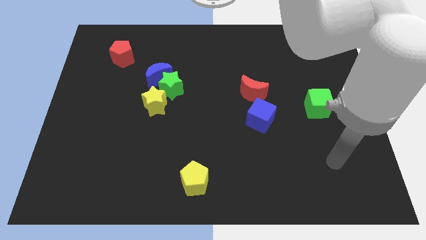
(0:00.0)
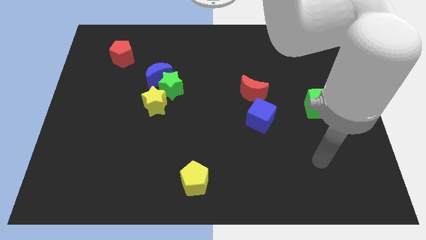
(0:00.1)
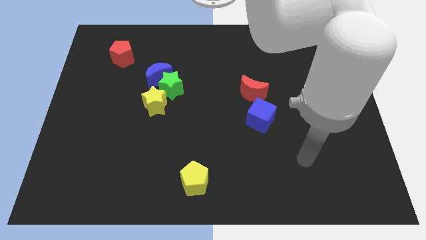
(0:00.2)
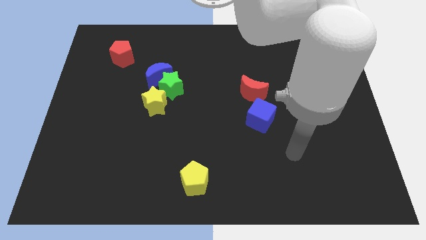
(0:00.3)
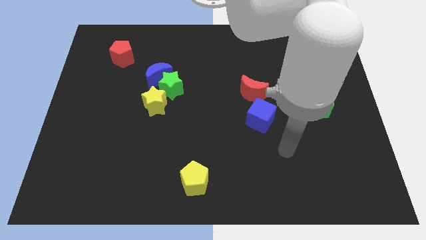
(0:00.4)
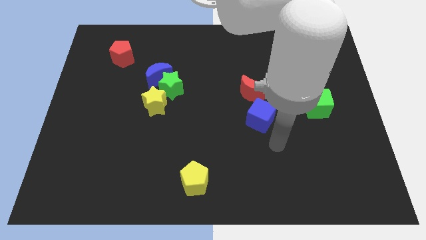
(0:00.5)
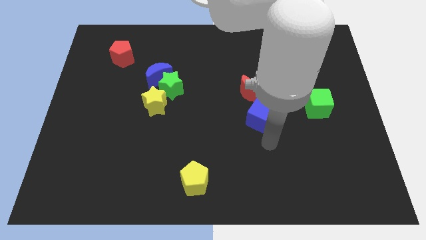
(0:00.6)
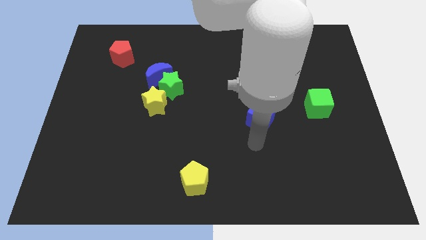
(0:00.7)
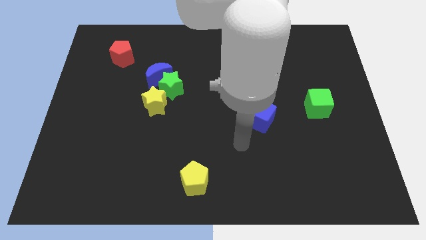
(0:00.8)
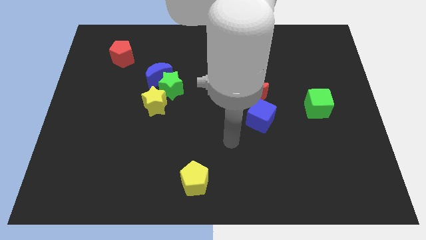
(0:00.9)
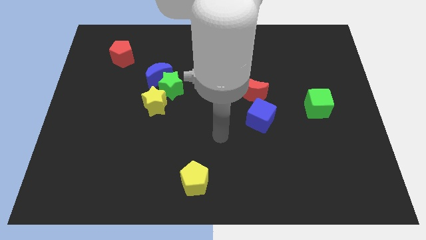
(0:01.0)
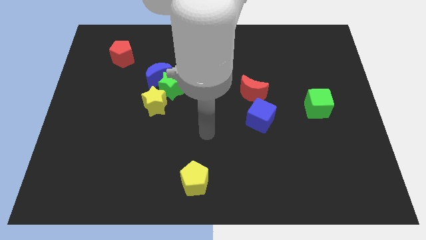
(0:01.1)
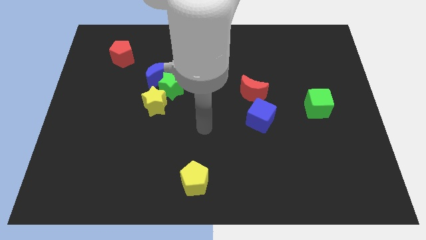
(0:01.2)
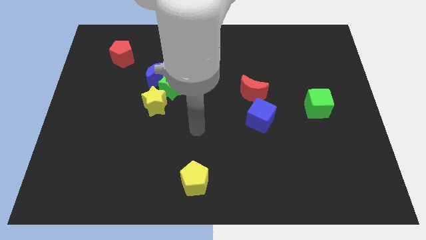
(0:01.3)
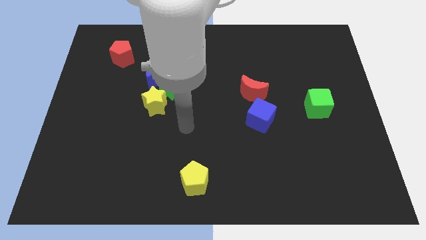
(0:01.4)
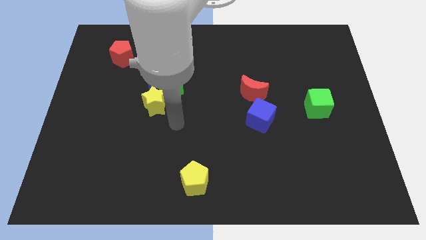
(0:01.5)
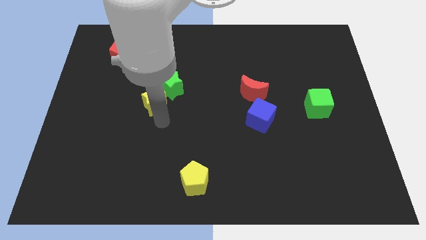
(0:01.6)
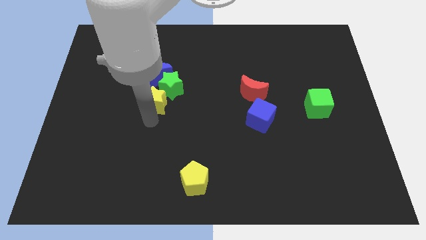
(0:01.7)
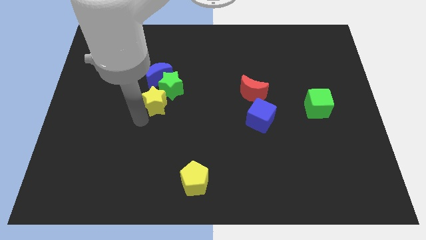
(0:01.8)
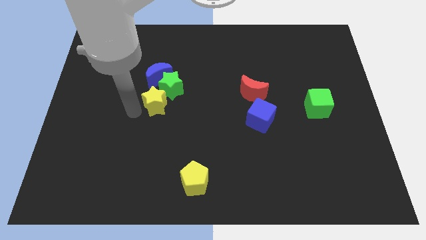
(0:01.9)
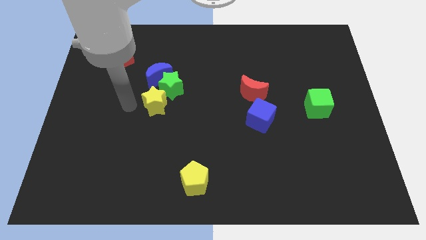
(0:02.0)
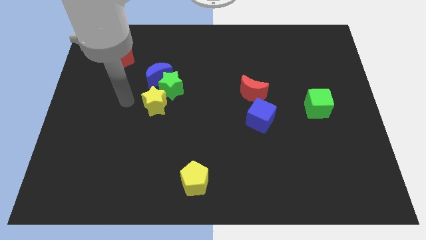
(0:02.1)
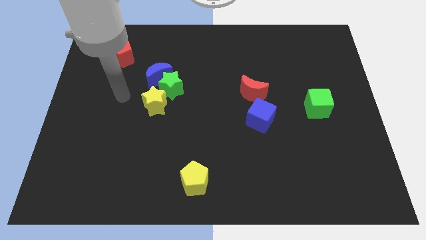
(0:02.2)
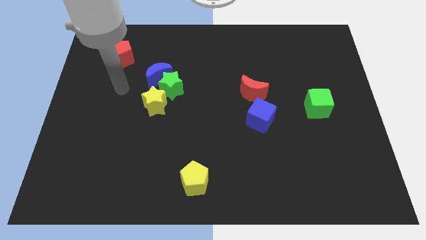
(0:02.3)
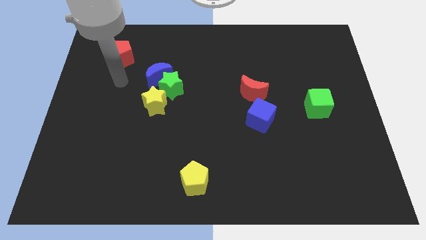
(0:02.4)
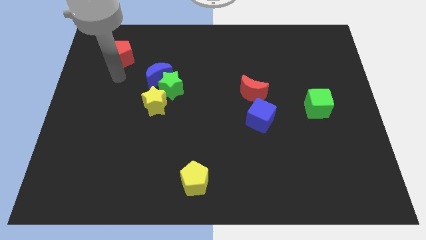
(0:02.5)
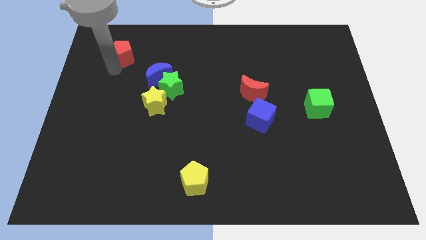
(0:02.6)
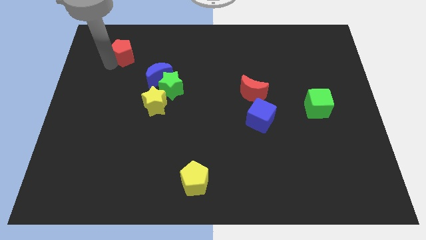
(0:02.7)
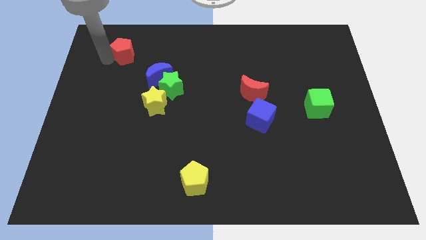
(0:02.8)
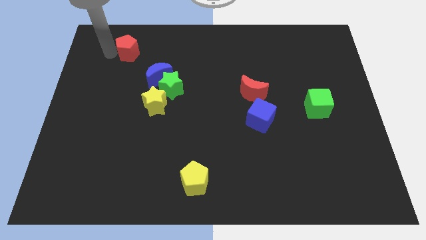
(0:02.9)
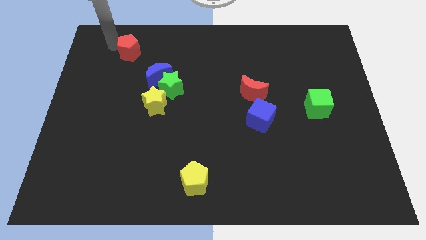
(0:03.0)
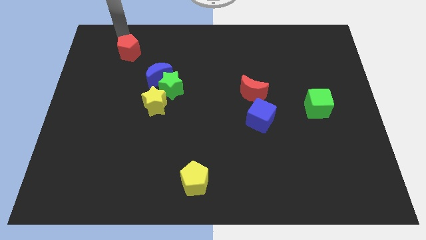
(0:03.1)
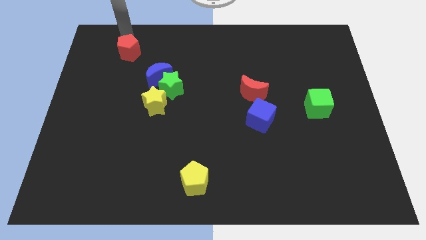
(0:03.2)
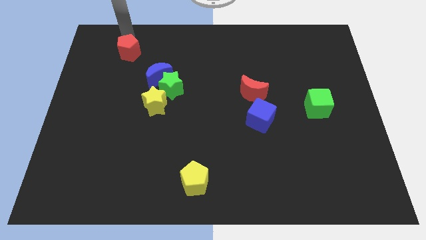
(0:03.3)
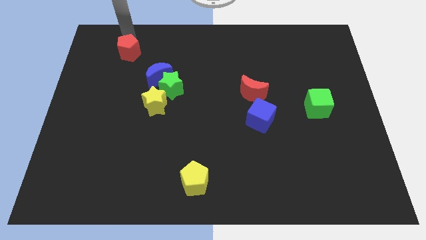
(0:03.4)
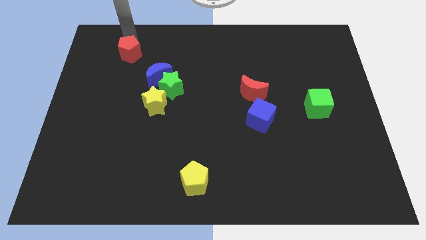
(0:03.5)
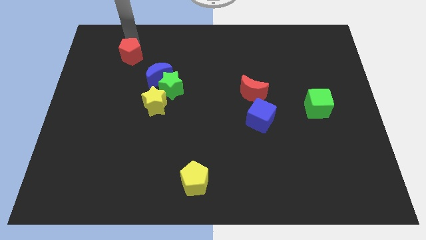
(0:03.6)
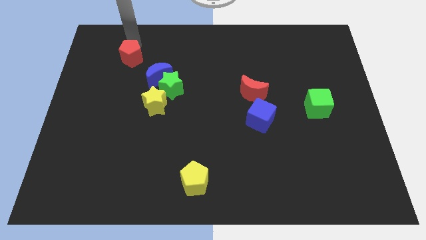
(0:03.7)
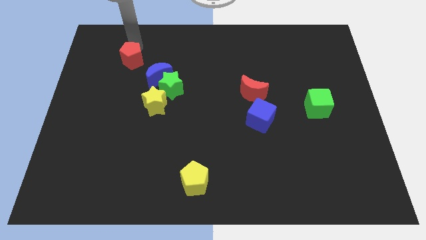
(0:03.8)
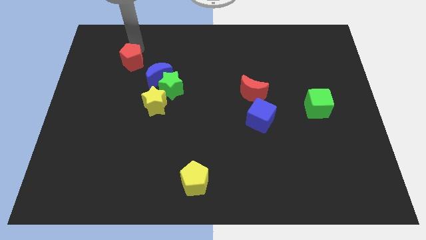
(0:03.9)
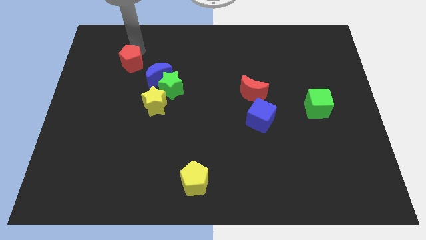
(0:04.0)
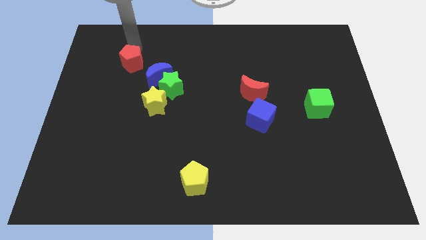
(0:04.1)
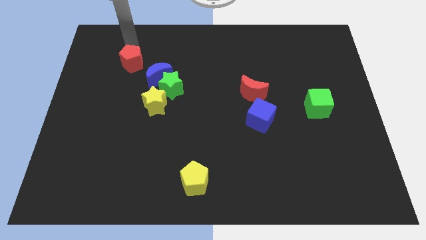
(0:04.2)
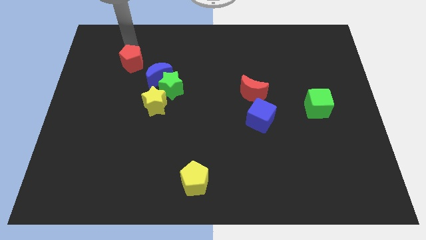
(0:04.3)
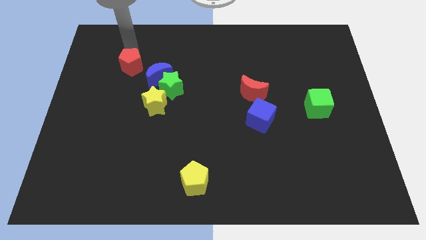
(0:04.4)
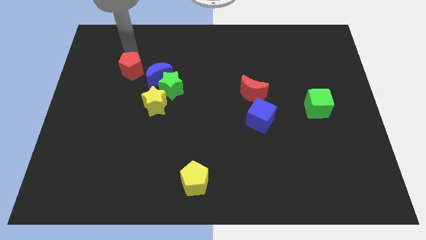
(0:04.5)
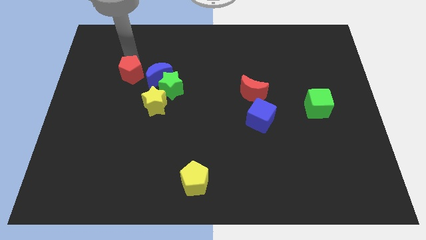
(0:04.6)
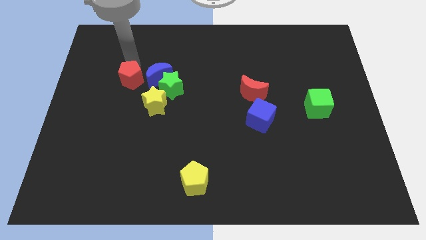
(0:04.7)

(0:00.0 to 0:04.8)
move the red pentagon to the left of the green star

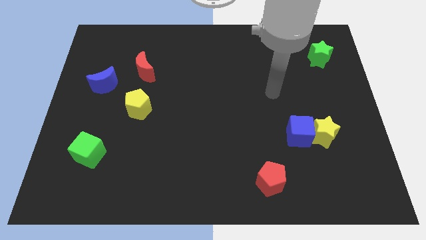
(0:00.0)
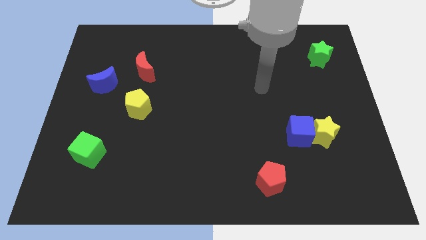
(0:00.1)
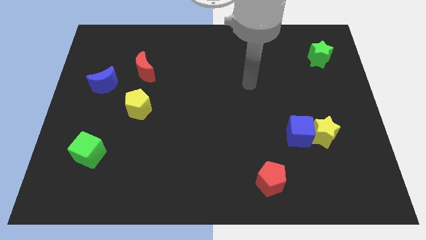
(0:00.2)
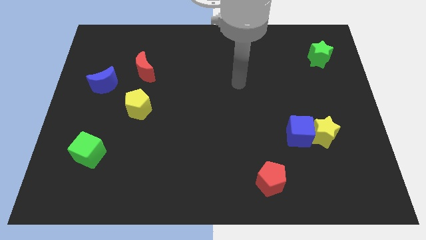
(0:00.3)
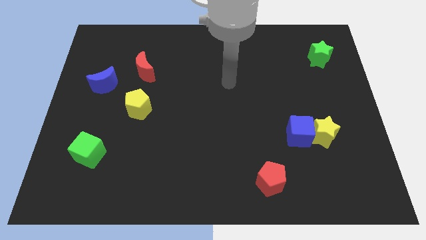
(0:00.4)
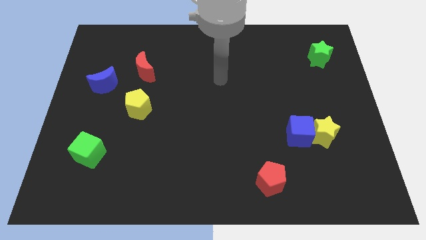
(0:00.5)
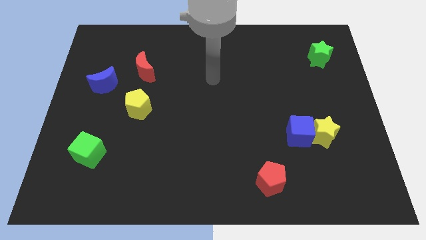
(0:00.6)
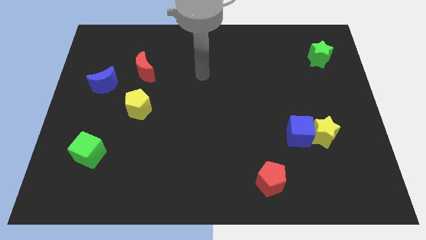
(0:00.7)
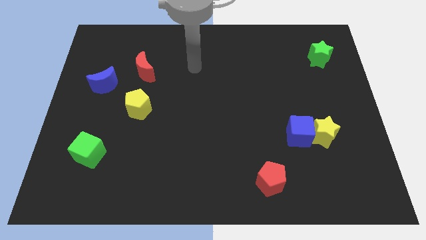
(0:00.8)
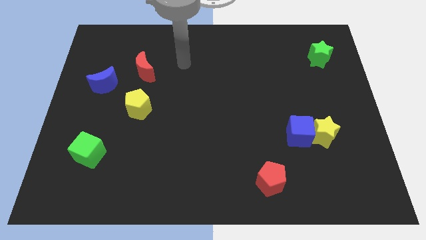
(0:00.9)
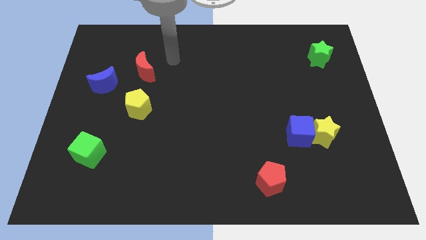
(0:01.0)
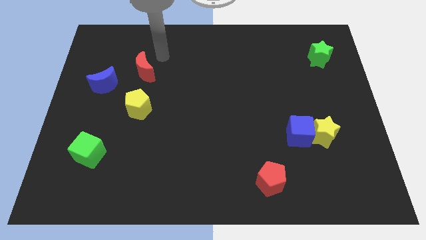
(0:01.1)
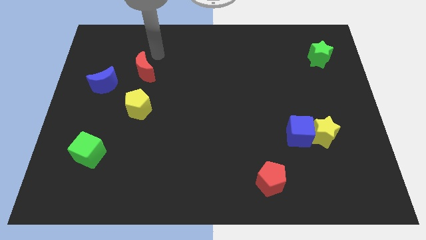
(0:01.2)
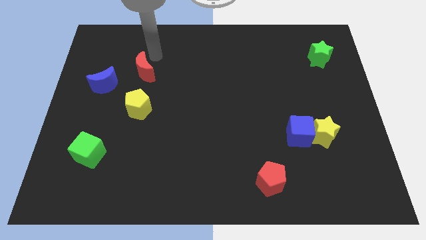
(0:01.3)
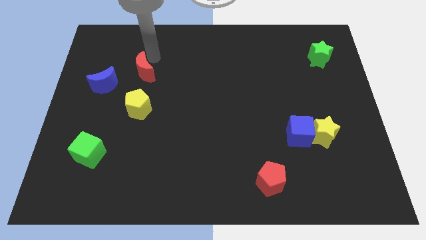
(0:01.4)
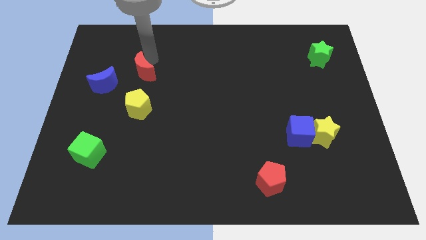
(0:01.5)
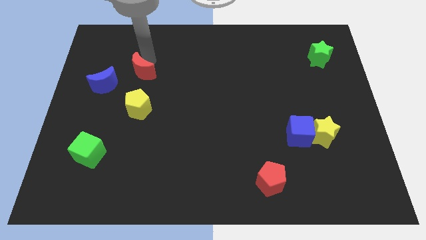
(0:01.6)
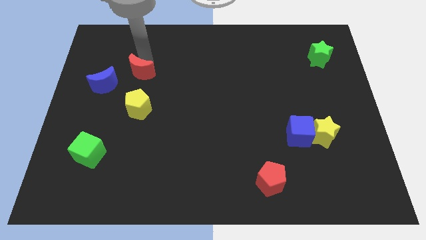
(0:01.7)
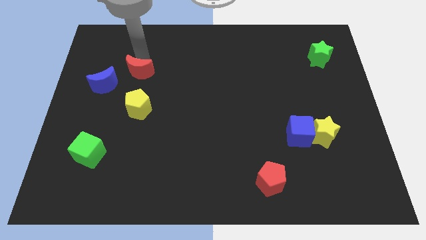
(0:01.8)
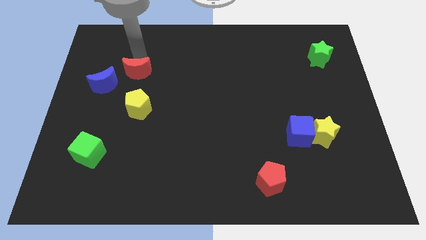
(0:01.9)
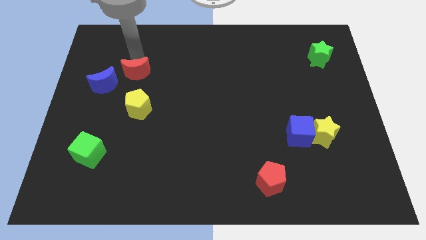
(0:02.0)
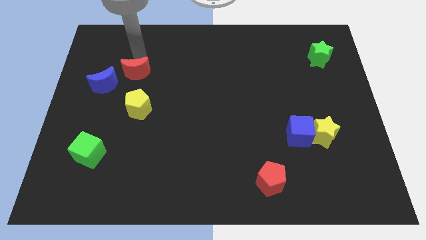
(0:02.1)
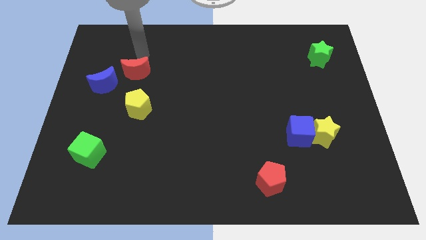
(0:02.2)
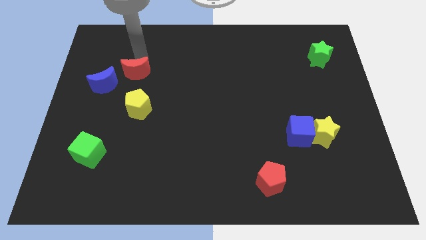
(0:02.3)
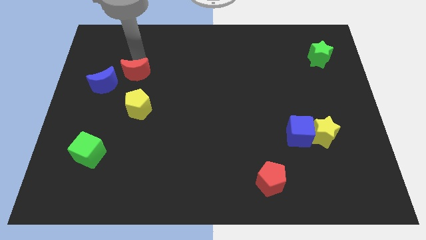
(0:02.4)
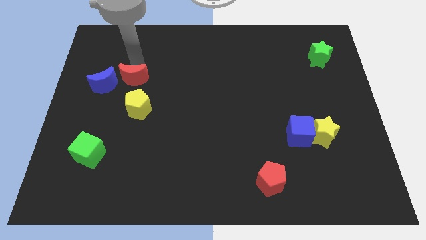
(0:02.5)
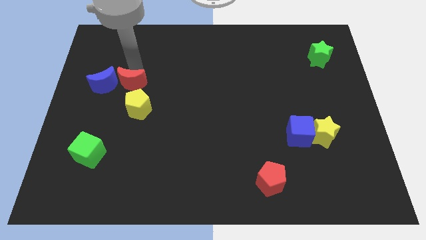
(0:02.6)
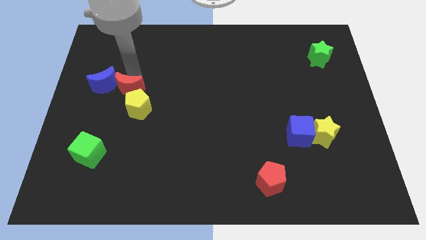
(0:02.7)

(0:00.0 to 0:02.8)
move the red moon to the bottom right side of the blue moon

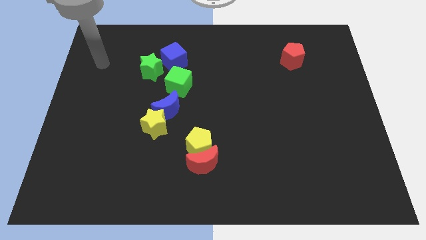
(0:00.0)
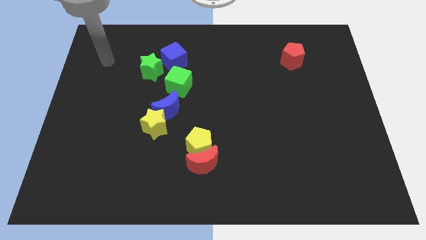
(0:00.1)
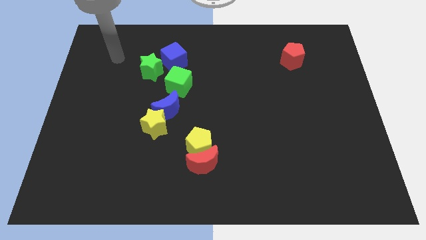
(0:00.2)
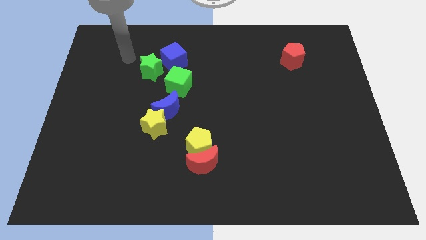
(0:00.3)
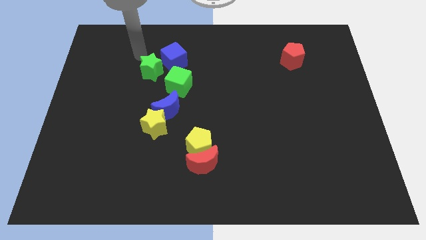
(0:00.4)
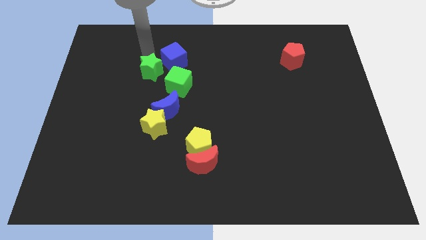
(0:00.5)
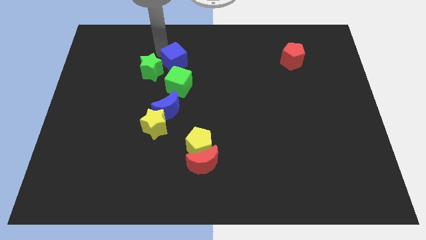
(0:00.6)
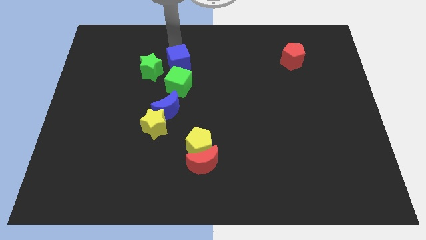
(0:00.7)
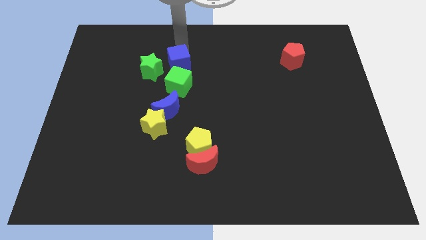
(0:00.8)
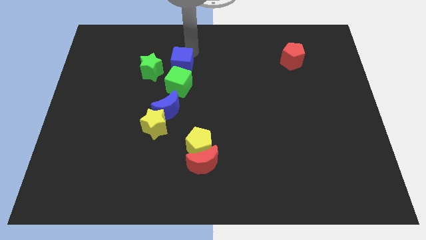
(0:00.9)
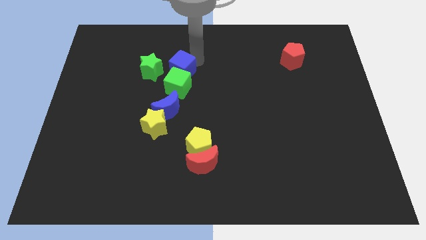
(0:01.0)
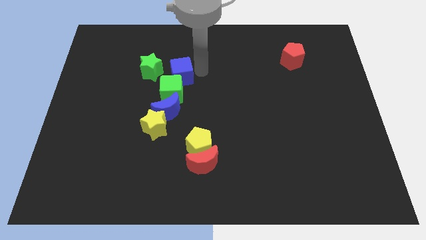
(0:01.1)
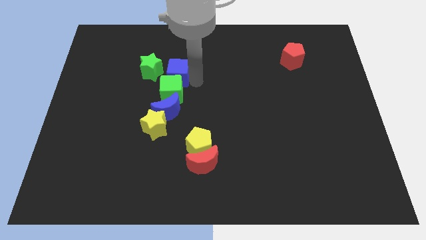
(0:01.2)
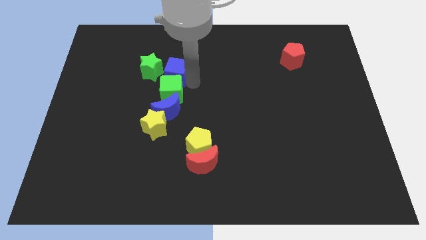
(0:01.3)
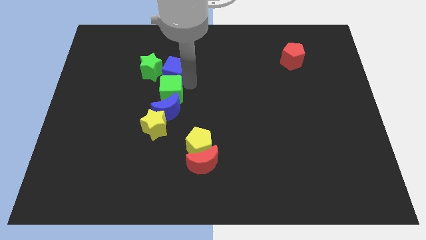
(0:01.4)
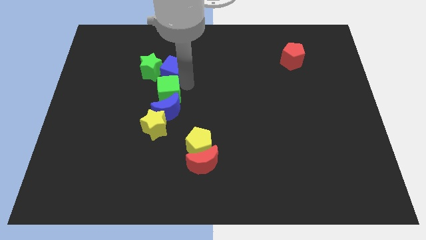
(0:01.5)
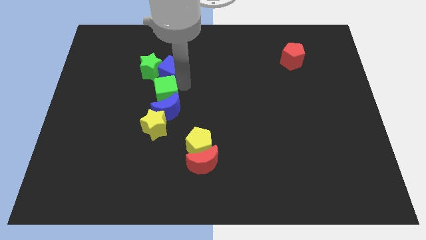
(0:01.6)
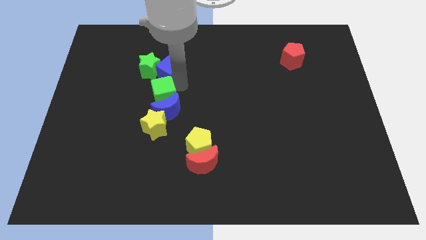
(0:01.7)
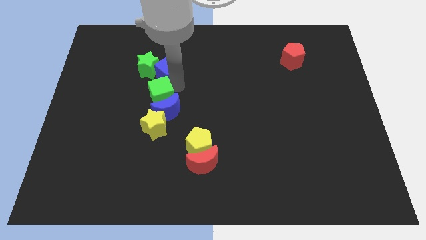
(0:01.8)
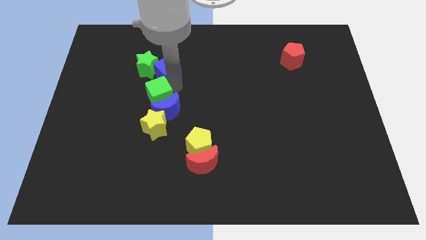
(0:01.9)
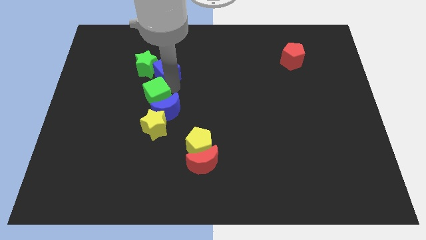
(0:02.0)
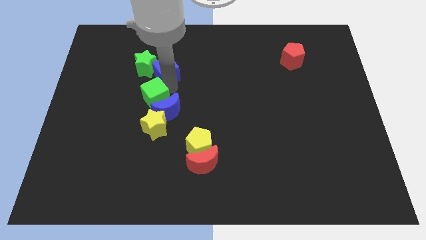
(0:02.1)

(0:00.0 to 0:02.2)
put the green cube just left of the blue moon
